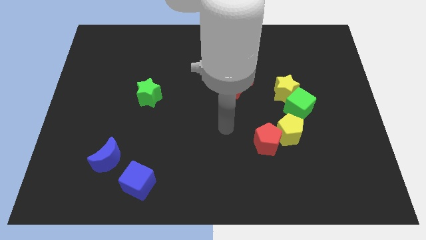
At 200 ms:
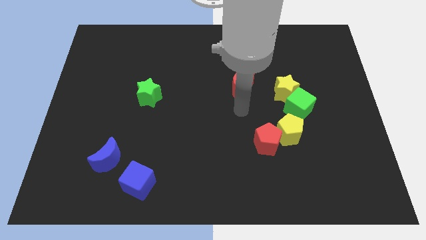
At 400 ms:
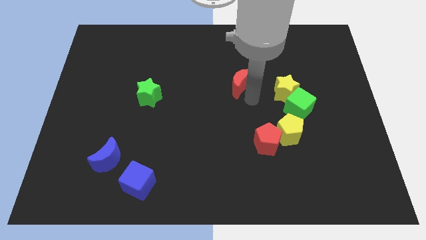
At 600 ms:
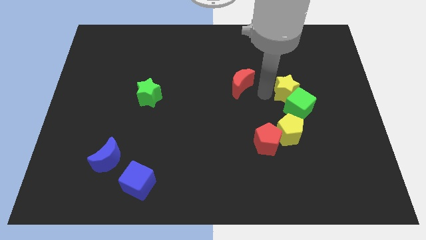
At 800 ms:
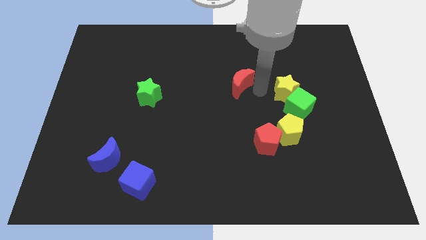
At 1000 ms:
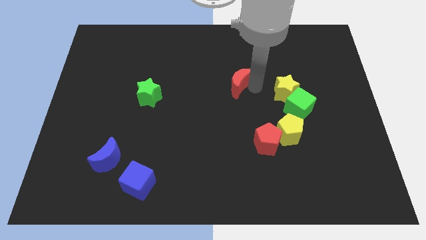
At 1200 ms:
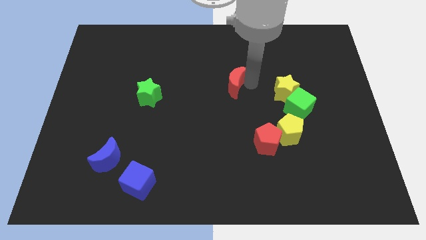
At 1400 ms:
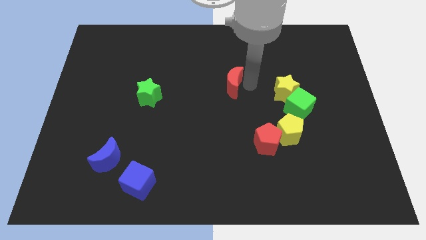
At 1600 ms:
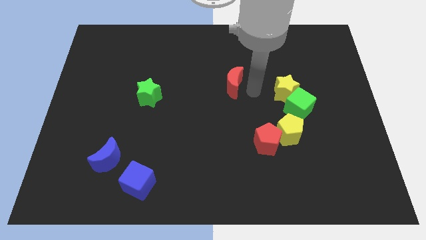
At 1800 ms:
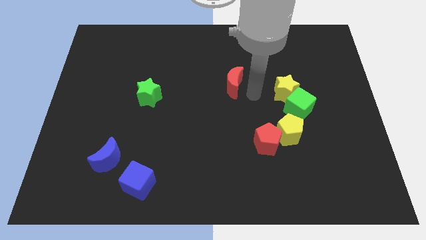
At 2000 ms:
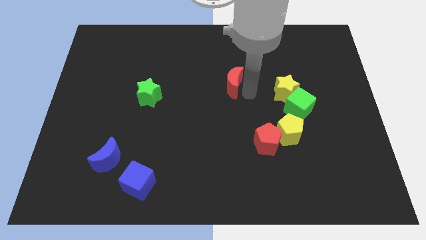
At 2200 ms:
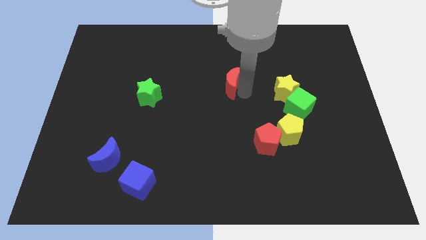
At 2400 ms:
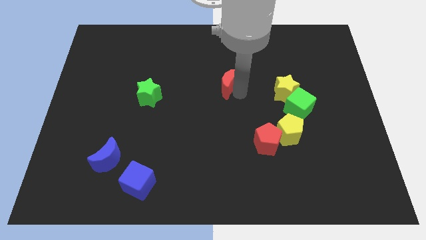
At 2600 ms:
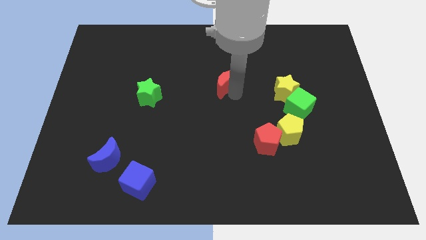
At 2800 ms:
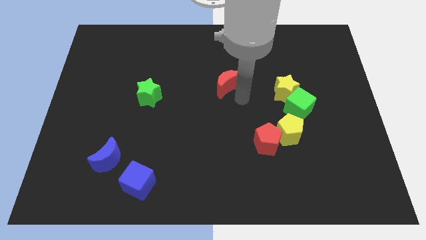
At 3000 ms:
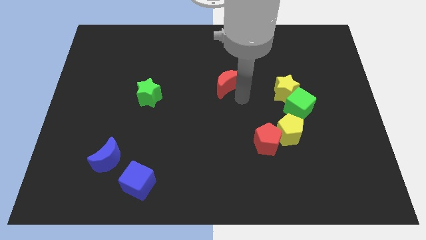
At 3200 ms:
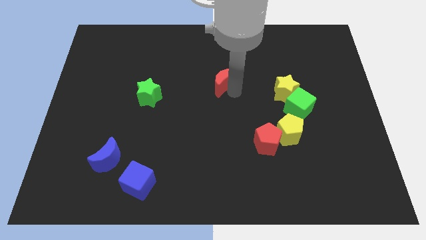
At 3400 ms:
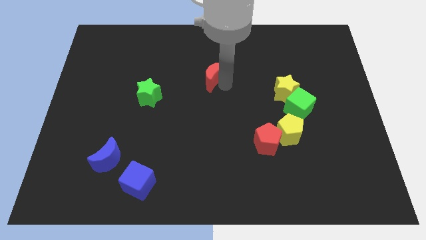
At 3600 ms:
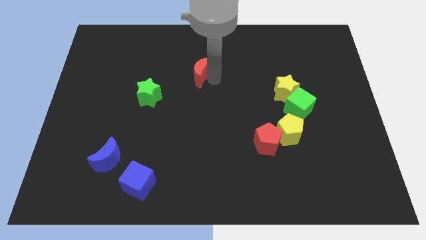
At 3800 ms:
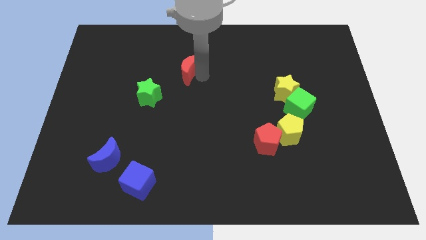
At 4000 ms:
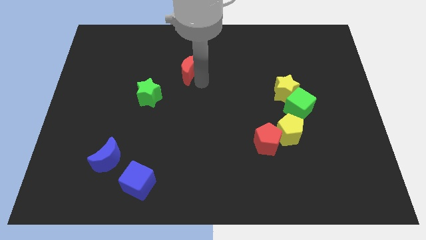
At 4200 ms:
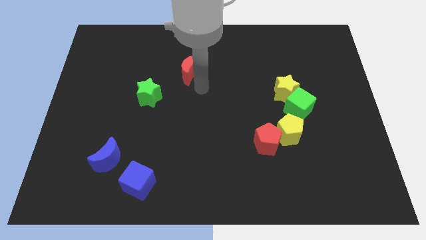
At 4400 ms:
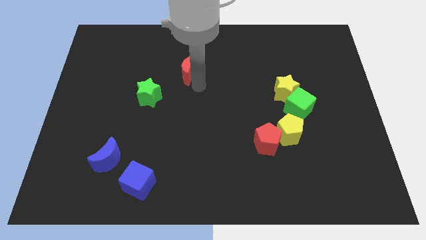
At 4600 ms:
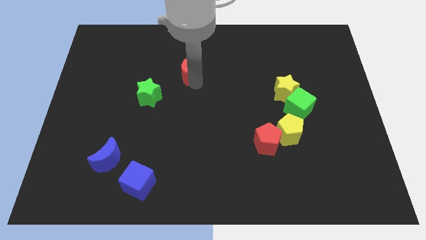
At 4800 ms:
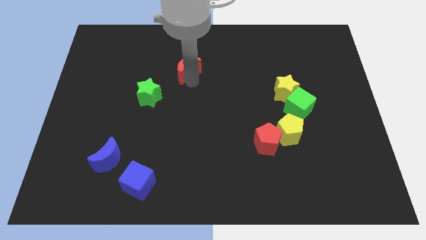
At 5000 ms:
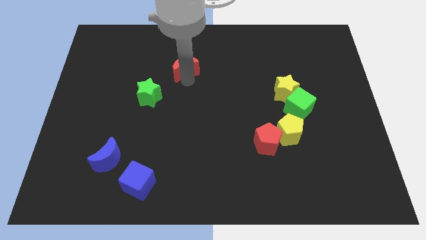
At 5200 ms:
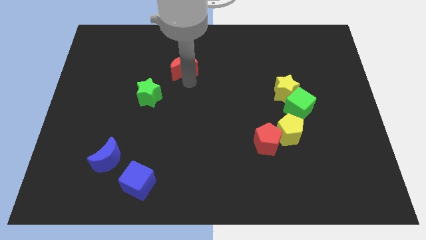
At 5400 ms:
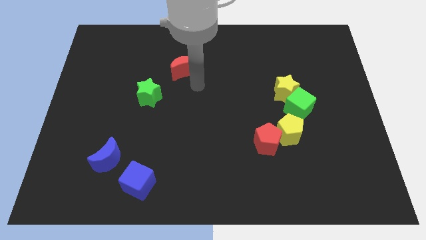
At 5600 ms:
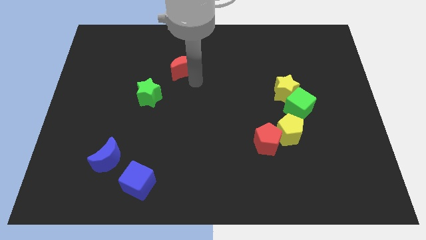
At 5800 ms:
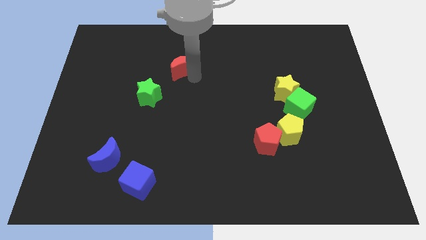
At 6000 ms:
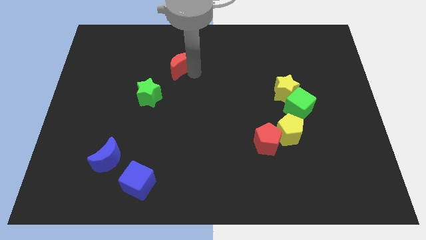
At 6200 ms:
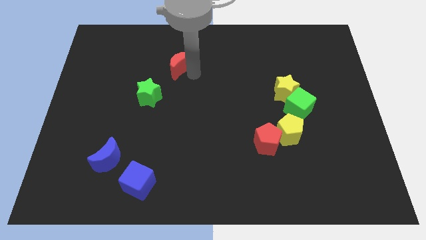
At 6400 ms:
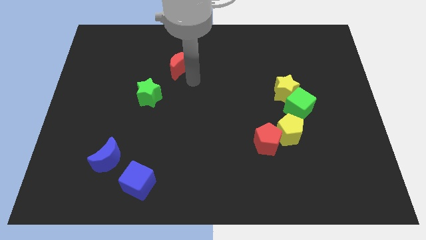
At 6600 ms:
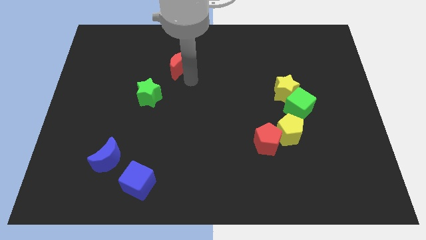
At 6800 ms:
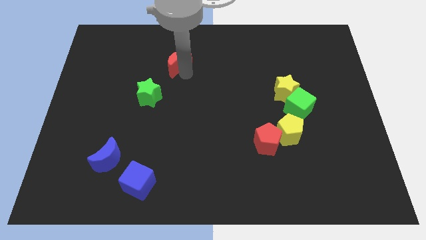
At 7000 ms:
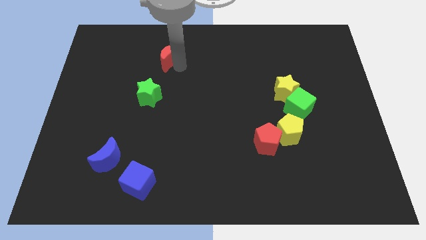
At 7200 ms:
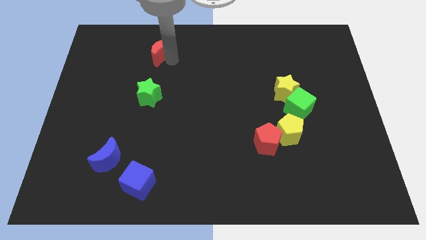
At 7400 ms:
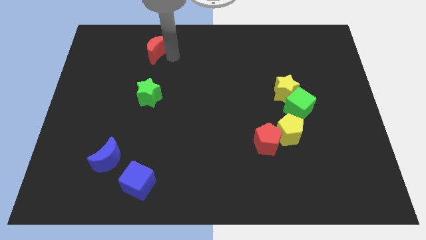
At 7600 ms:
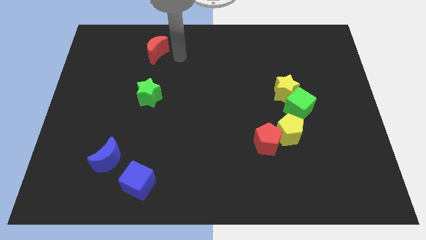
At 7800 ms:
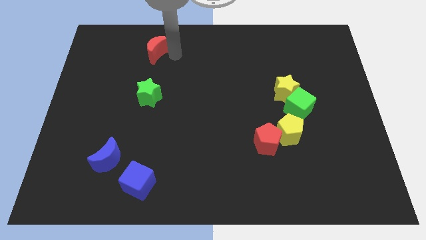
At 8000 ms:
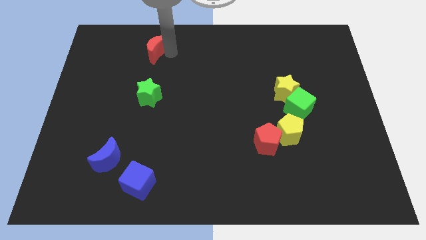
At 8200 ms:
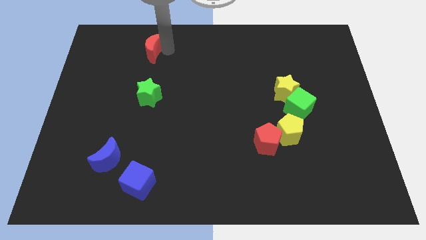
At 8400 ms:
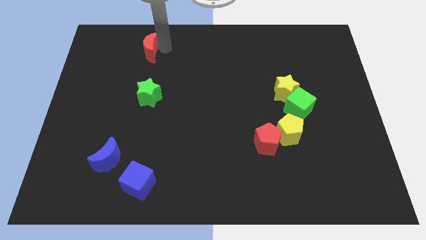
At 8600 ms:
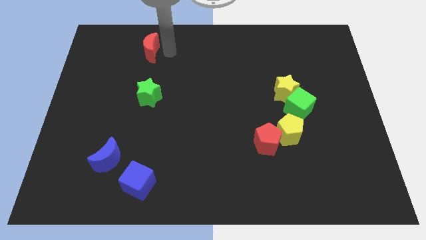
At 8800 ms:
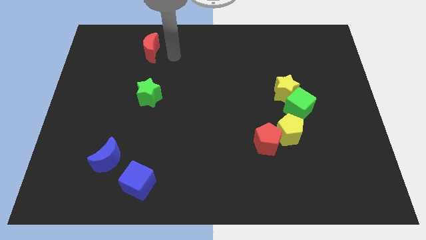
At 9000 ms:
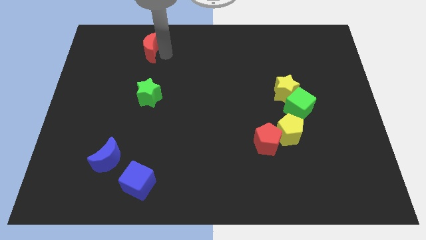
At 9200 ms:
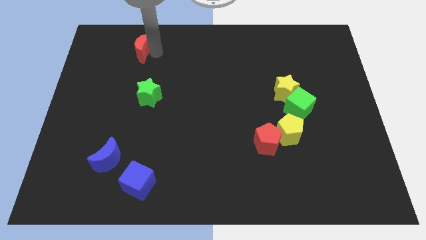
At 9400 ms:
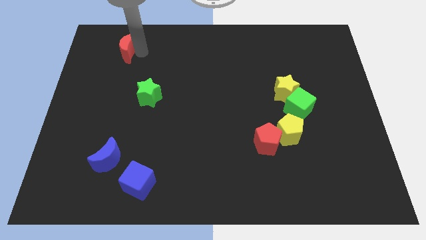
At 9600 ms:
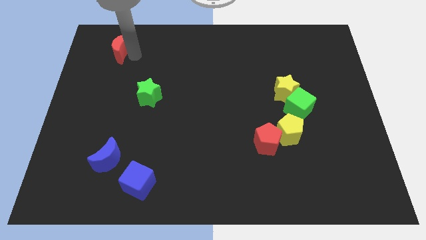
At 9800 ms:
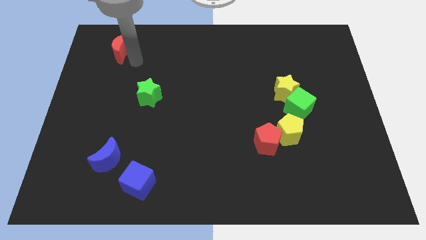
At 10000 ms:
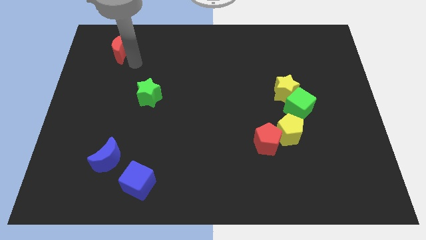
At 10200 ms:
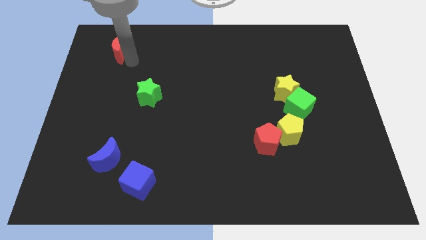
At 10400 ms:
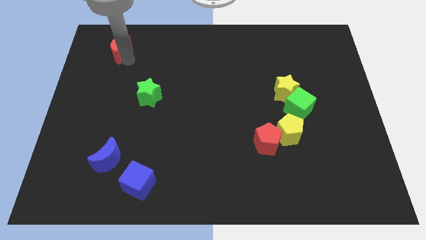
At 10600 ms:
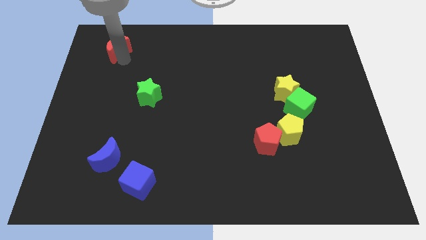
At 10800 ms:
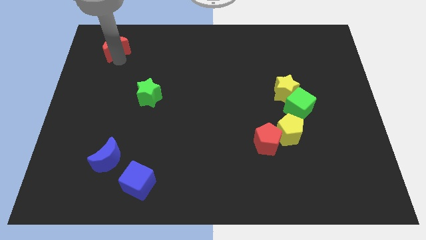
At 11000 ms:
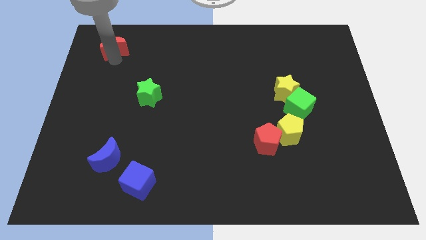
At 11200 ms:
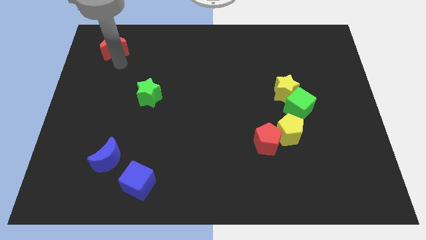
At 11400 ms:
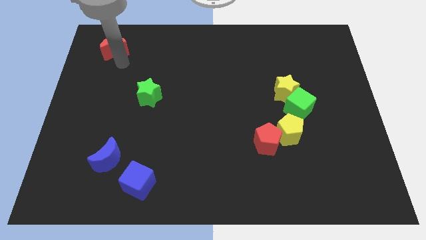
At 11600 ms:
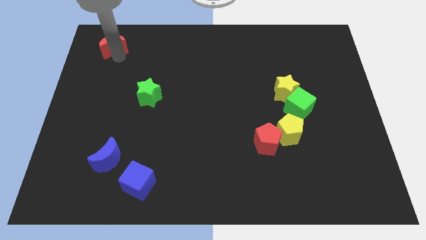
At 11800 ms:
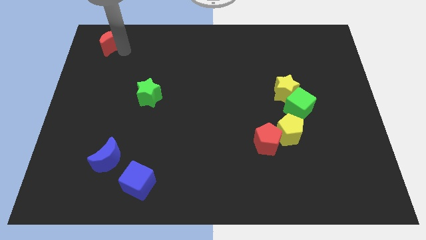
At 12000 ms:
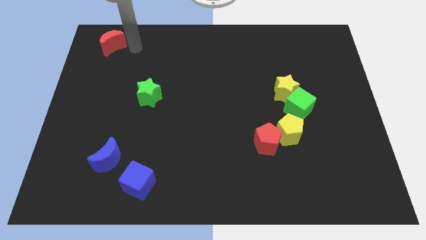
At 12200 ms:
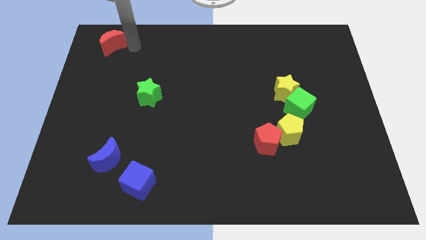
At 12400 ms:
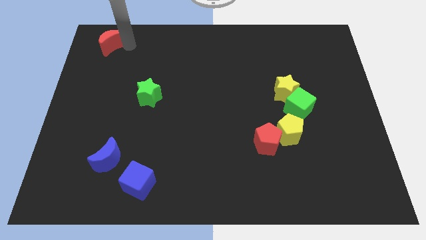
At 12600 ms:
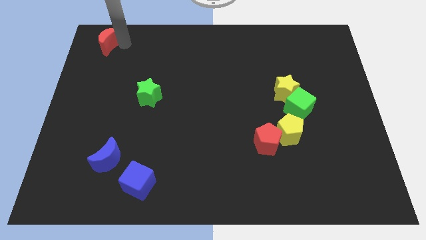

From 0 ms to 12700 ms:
put the red moon to the top left of the board

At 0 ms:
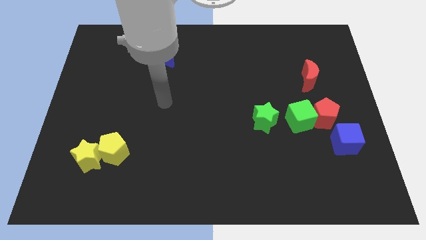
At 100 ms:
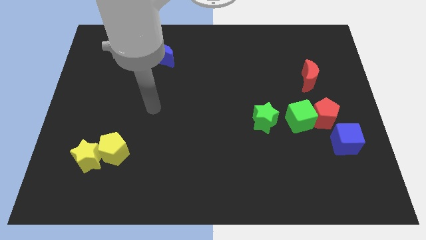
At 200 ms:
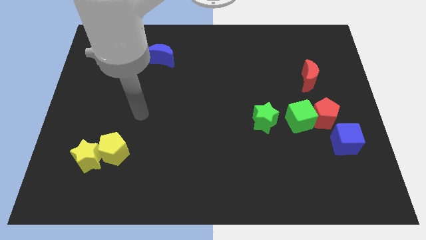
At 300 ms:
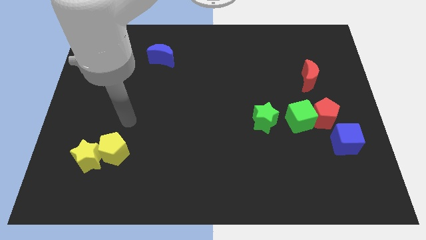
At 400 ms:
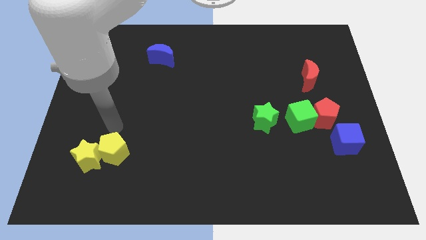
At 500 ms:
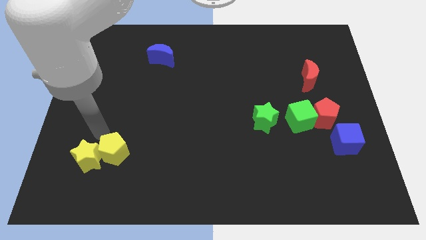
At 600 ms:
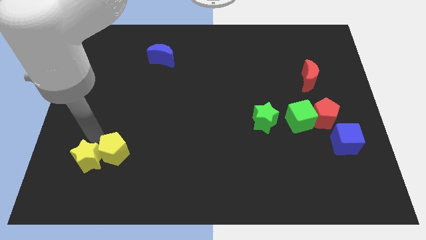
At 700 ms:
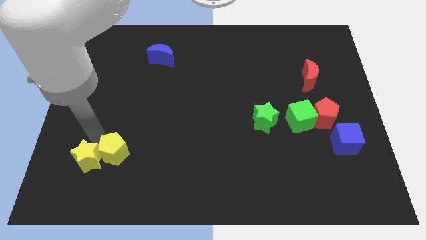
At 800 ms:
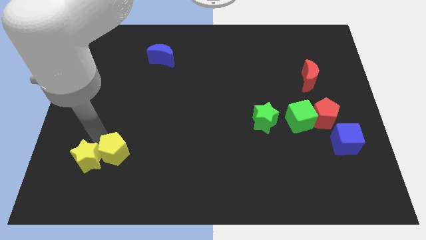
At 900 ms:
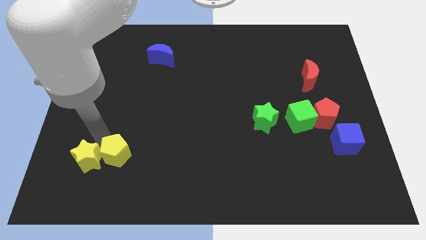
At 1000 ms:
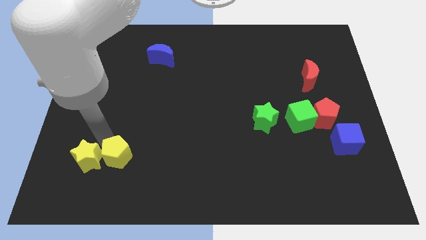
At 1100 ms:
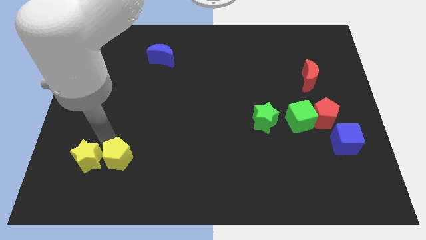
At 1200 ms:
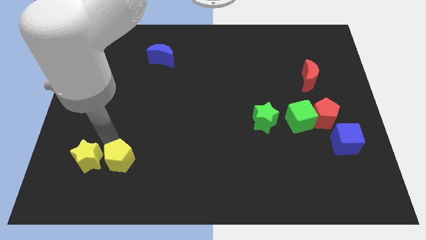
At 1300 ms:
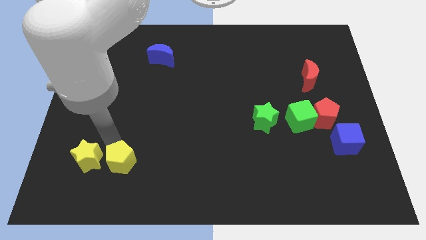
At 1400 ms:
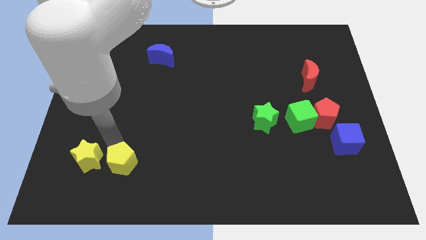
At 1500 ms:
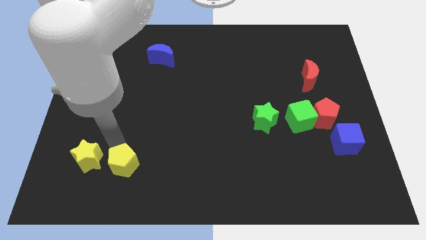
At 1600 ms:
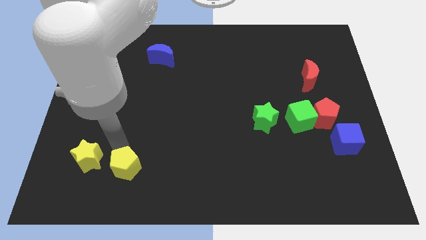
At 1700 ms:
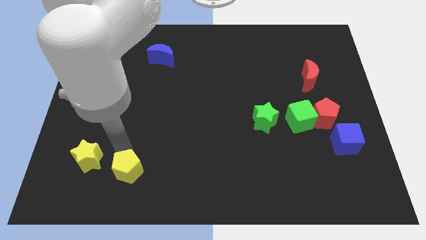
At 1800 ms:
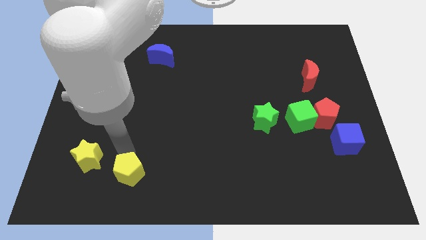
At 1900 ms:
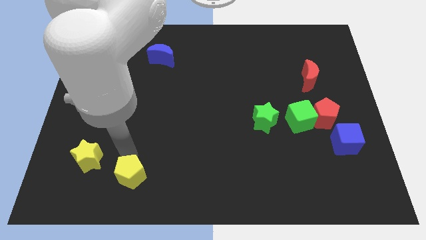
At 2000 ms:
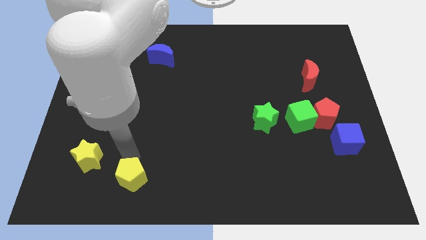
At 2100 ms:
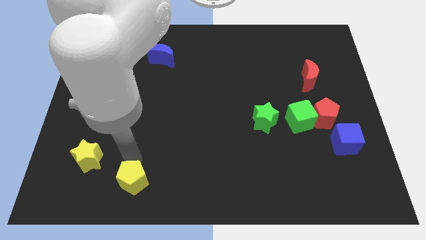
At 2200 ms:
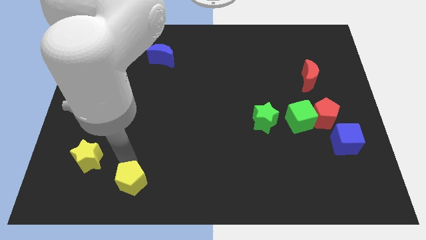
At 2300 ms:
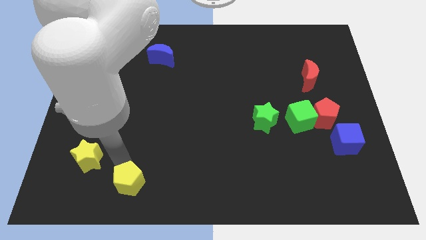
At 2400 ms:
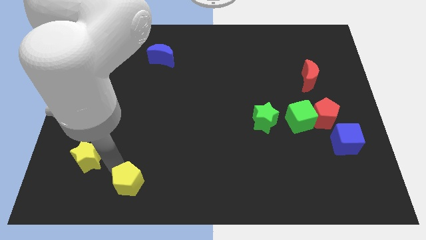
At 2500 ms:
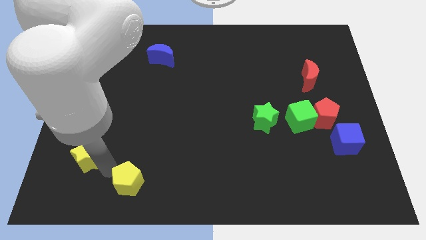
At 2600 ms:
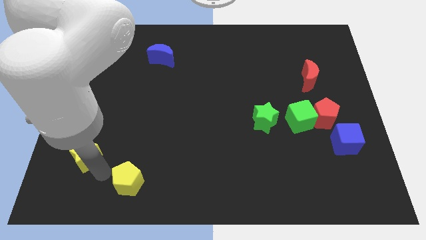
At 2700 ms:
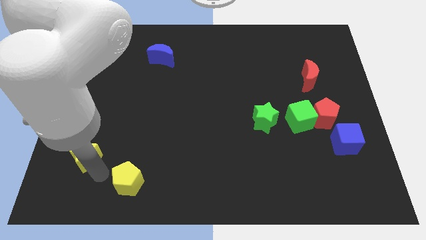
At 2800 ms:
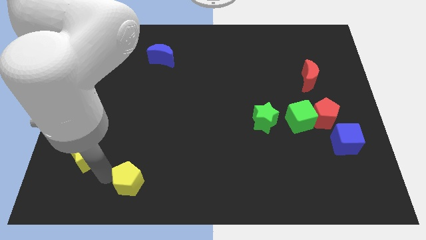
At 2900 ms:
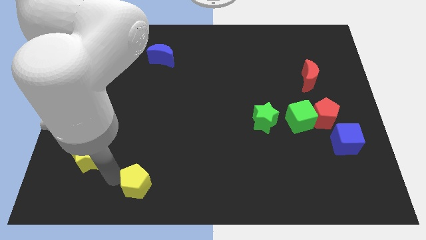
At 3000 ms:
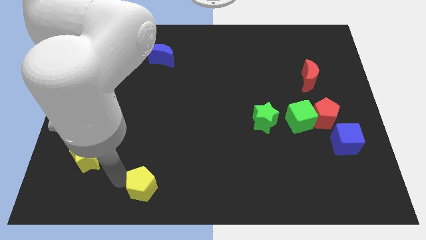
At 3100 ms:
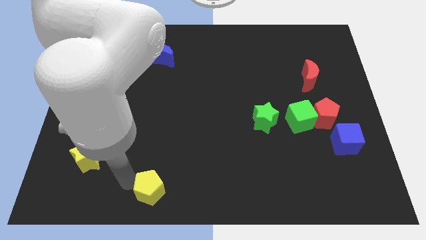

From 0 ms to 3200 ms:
push the yellow pentagon to the bottom
